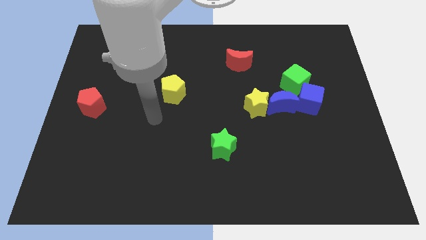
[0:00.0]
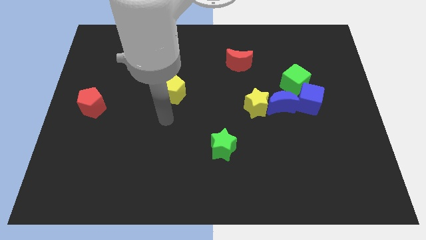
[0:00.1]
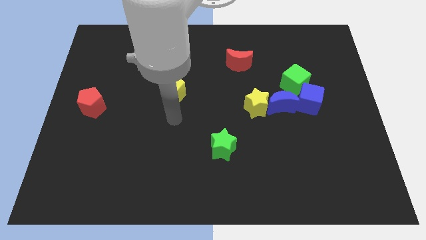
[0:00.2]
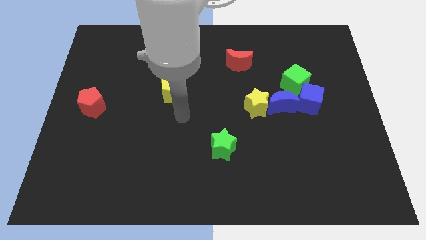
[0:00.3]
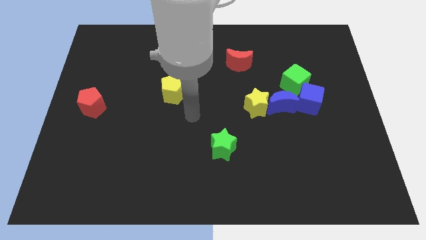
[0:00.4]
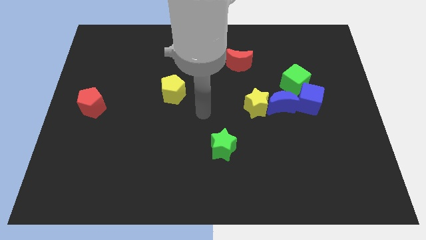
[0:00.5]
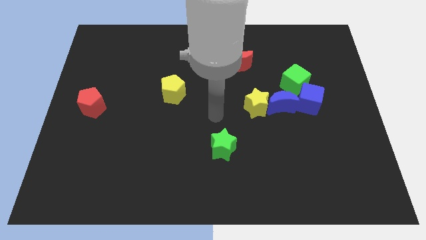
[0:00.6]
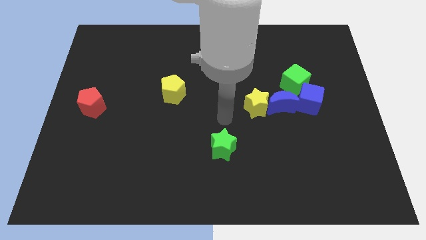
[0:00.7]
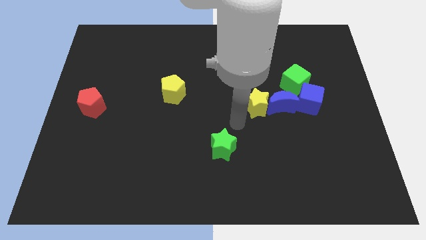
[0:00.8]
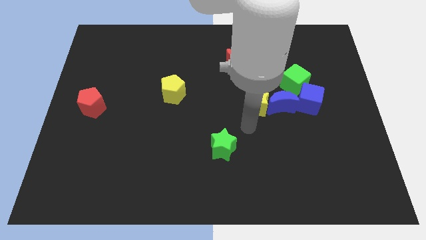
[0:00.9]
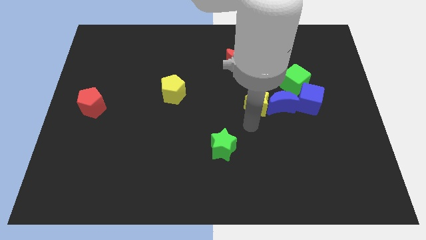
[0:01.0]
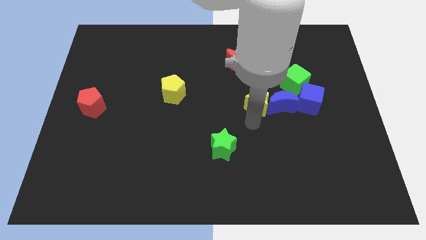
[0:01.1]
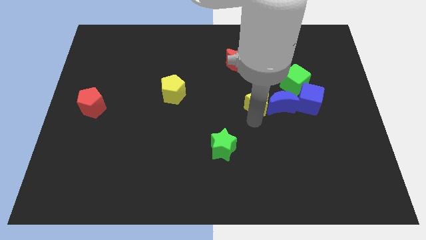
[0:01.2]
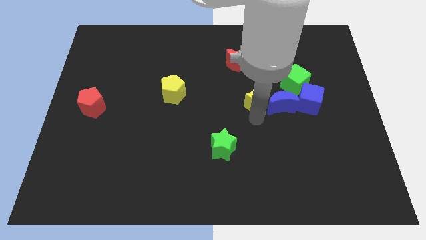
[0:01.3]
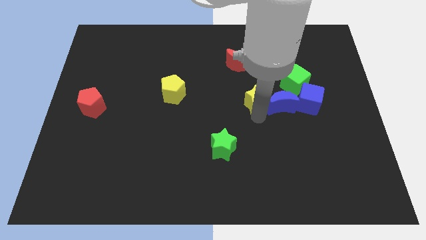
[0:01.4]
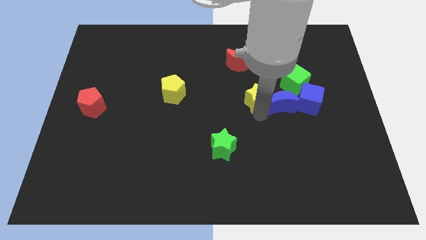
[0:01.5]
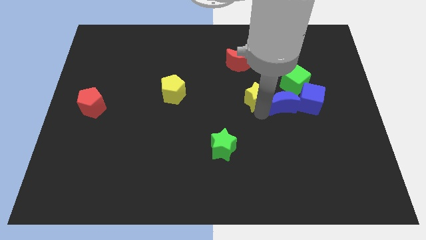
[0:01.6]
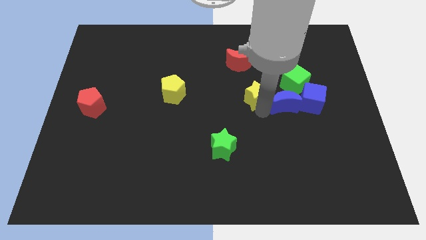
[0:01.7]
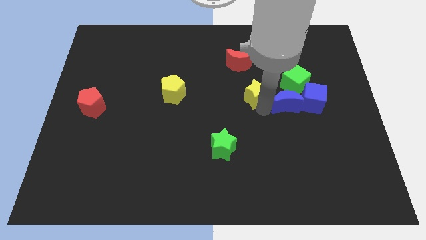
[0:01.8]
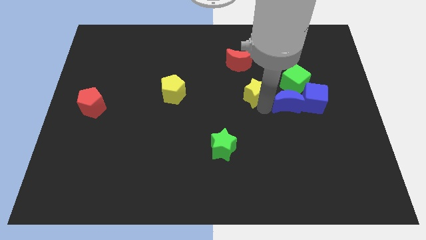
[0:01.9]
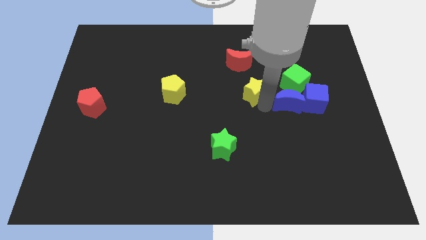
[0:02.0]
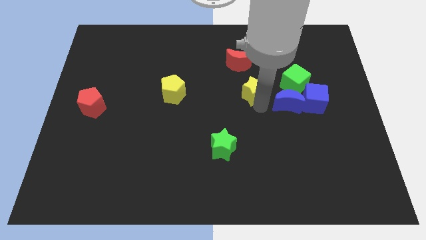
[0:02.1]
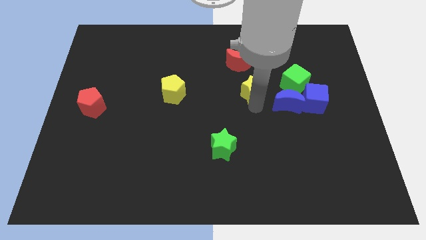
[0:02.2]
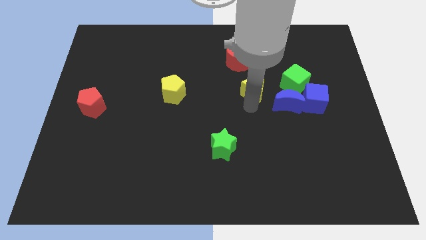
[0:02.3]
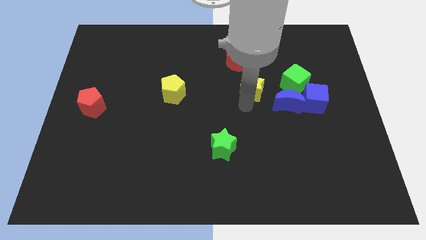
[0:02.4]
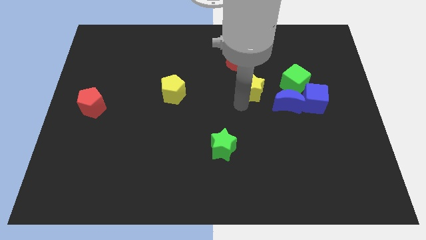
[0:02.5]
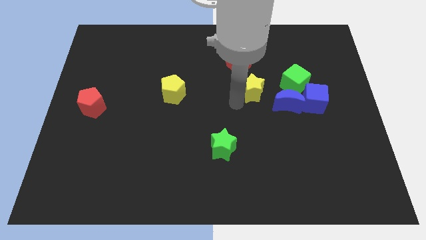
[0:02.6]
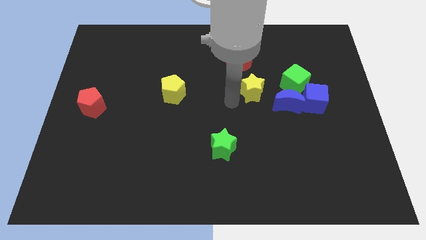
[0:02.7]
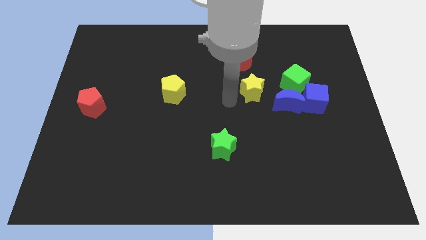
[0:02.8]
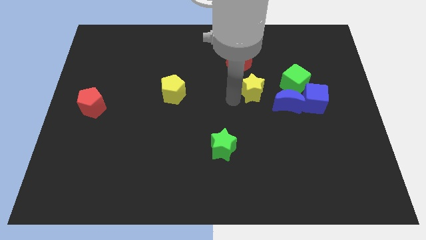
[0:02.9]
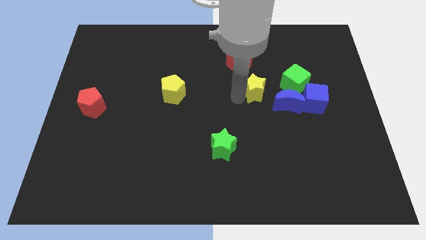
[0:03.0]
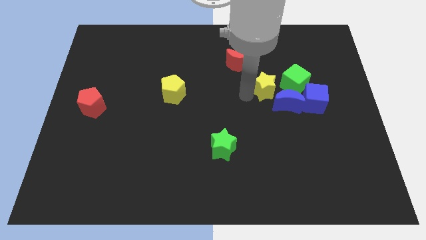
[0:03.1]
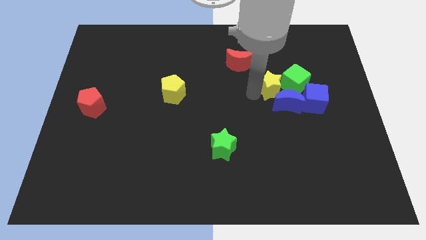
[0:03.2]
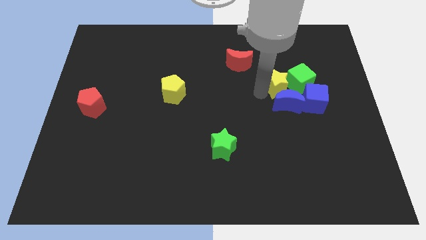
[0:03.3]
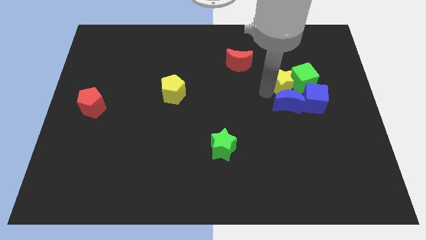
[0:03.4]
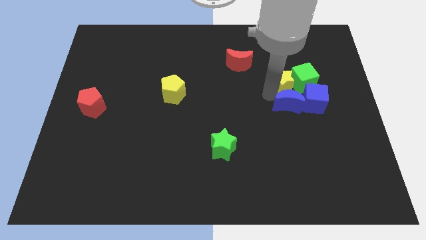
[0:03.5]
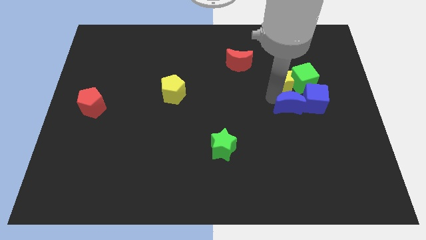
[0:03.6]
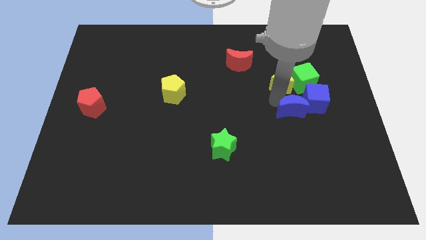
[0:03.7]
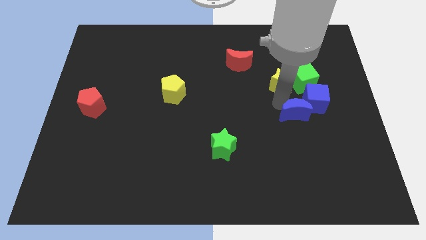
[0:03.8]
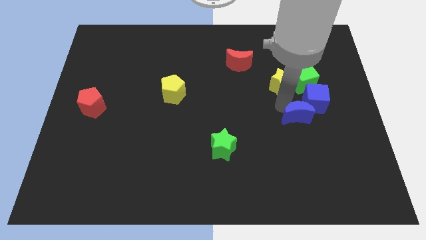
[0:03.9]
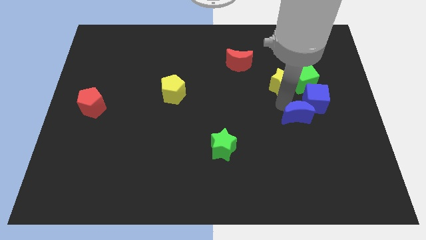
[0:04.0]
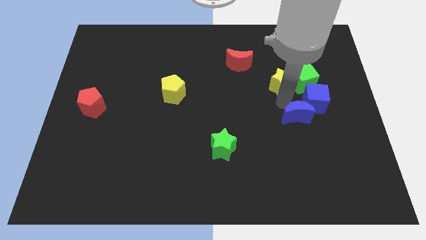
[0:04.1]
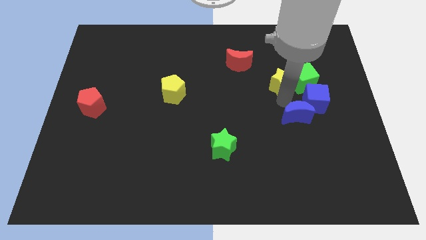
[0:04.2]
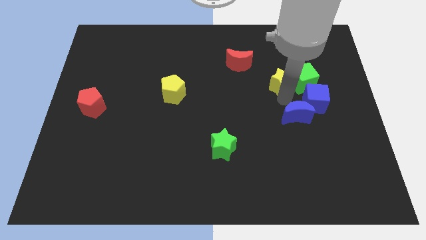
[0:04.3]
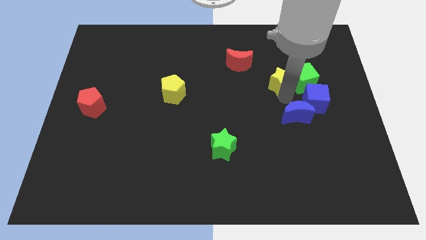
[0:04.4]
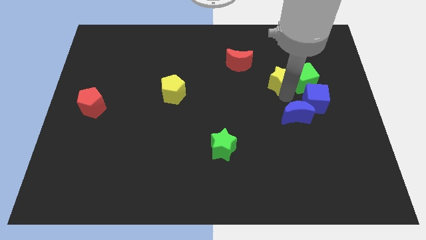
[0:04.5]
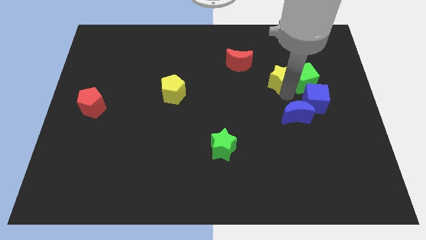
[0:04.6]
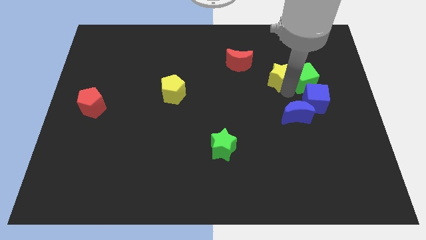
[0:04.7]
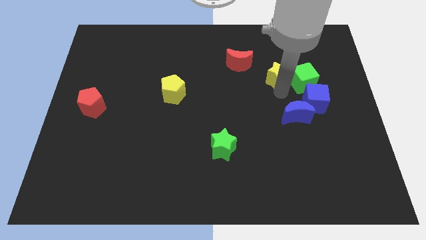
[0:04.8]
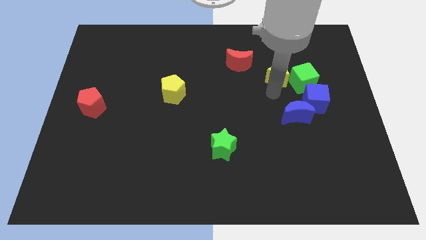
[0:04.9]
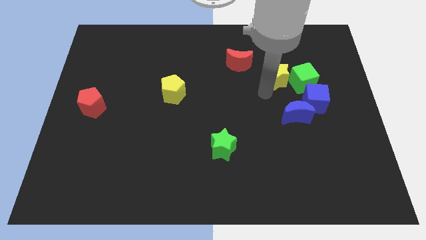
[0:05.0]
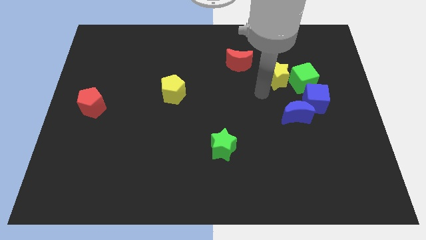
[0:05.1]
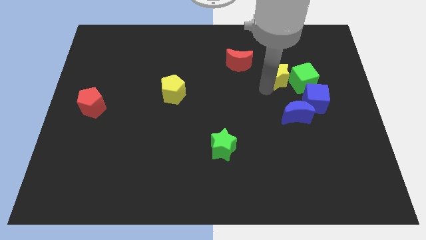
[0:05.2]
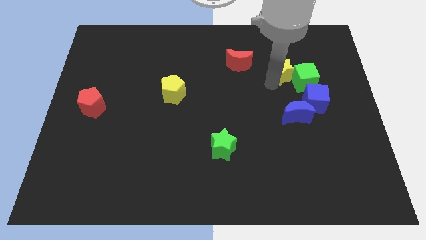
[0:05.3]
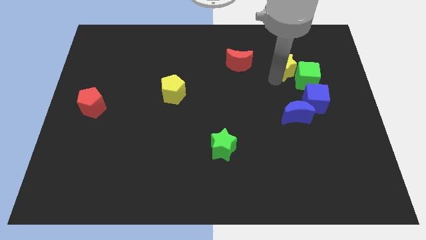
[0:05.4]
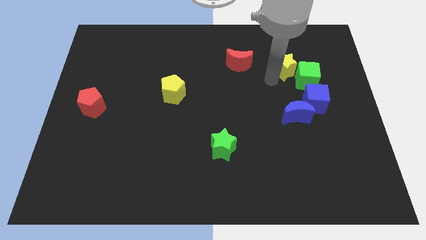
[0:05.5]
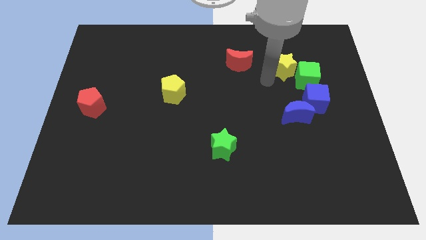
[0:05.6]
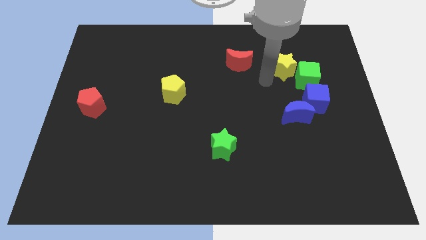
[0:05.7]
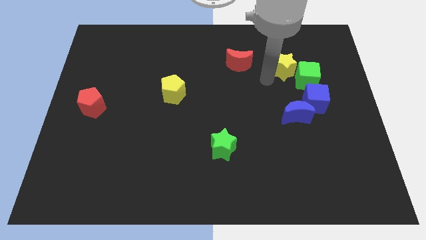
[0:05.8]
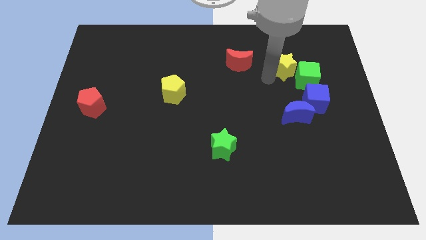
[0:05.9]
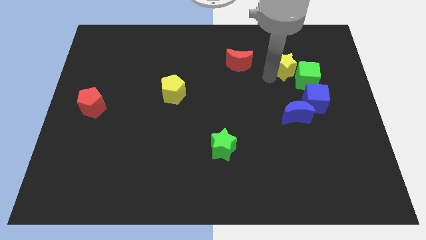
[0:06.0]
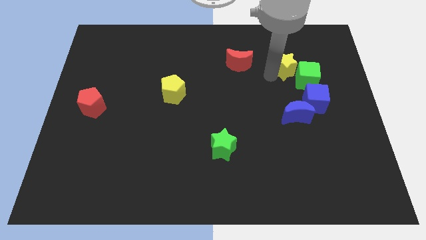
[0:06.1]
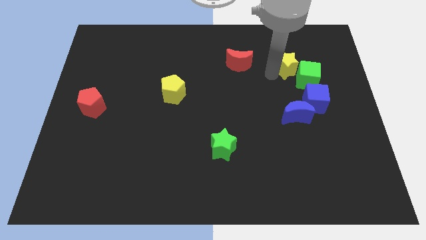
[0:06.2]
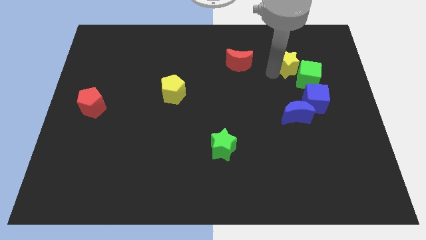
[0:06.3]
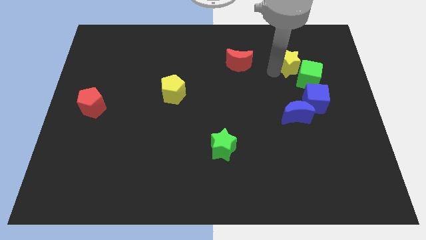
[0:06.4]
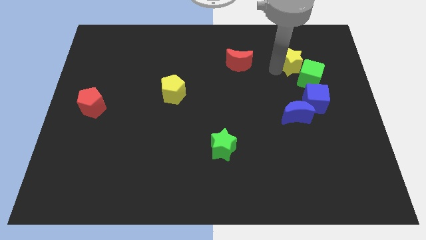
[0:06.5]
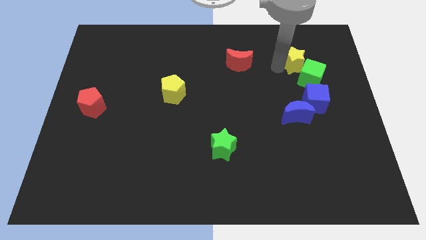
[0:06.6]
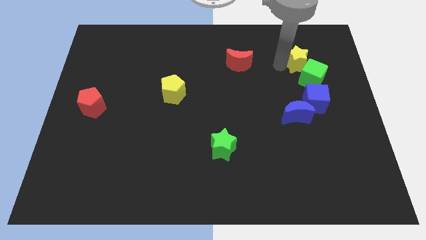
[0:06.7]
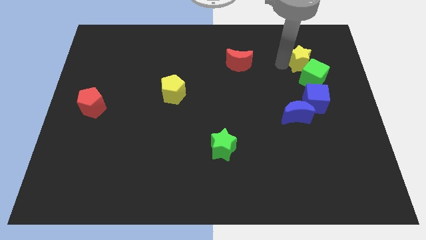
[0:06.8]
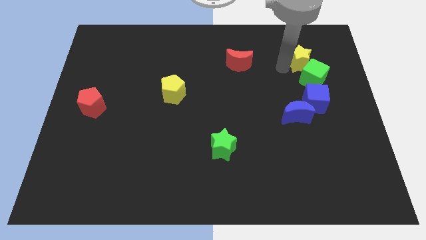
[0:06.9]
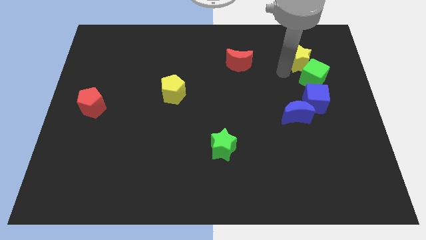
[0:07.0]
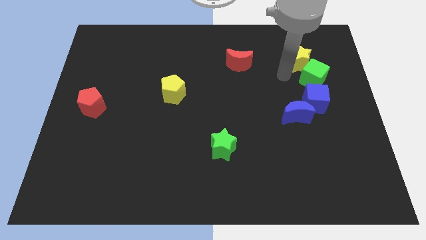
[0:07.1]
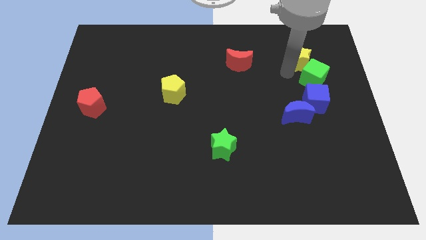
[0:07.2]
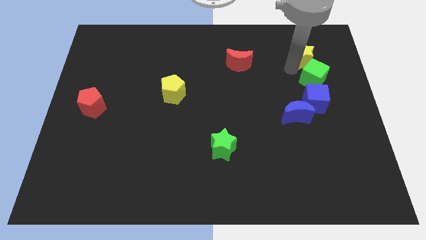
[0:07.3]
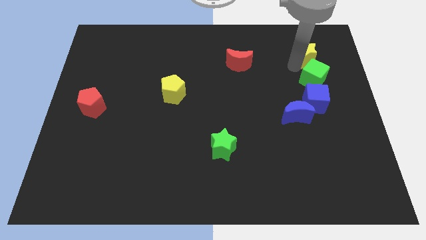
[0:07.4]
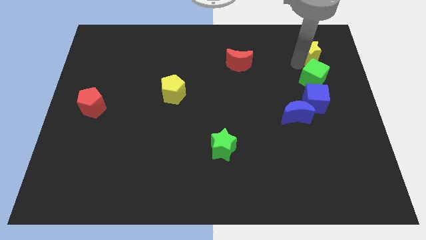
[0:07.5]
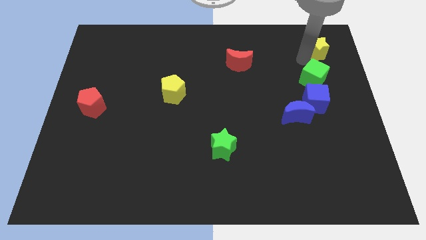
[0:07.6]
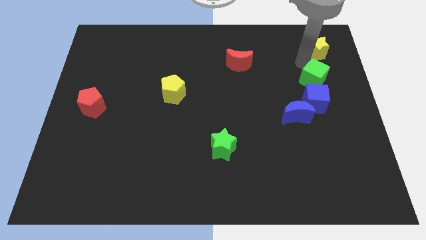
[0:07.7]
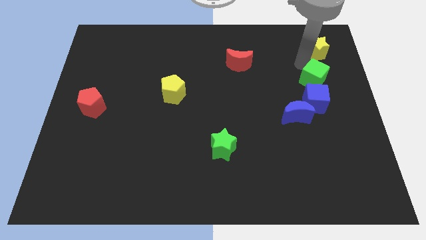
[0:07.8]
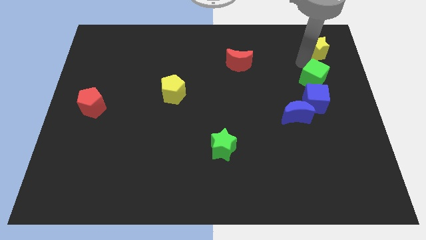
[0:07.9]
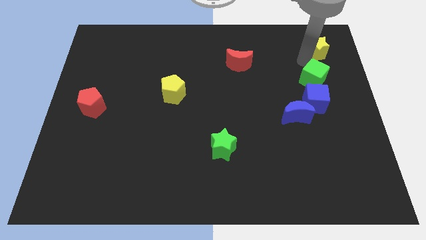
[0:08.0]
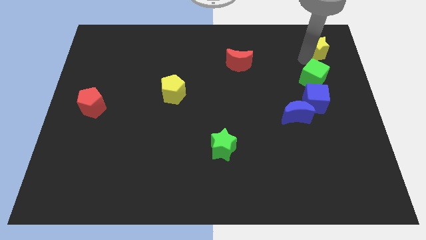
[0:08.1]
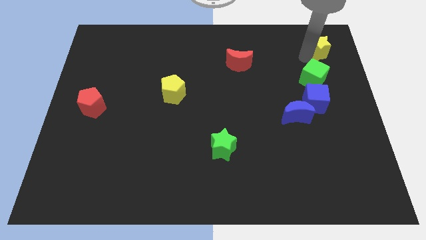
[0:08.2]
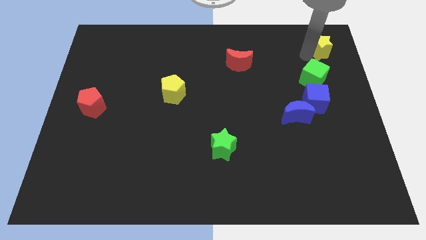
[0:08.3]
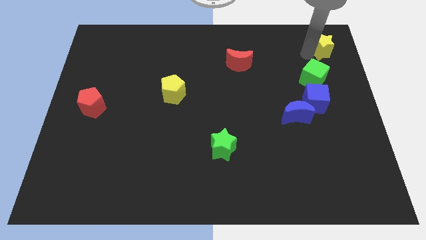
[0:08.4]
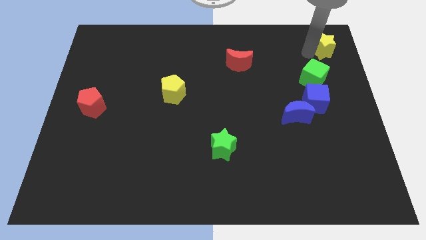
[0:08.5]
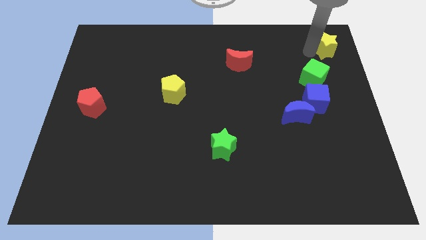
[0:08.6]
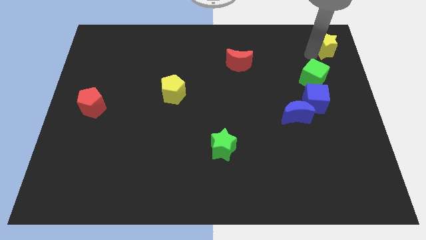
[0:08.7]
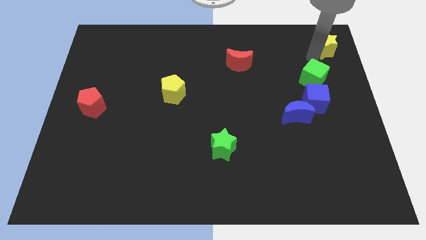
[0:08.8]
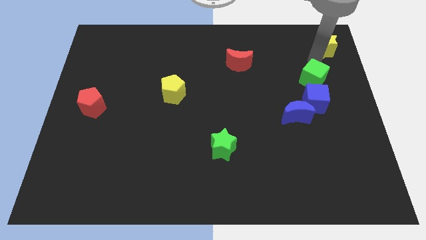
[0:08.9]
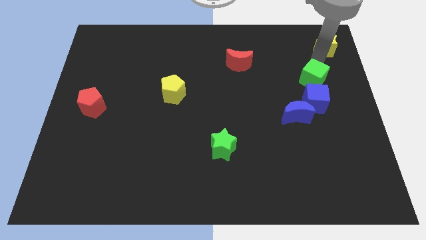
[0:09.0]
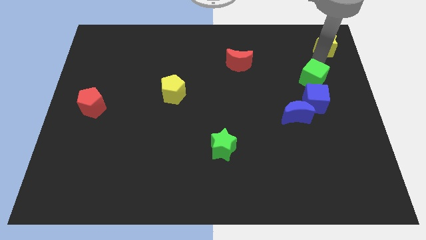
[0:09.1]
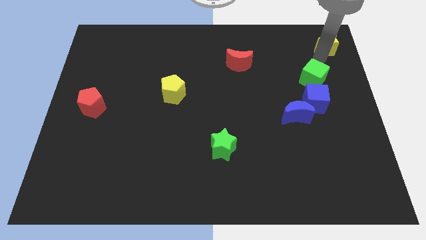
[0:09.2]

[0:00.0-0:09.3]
slide the yellow star to the top right corner
